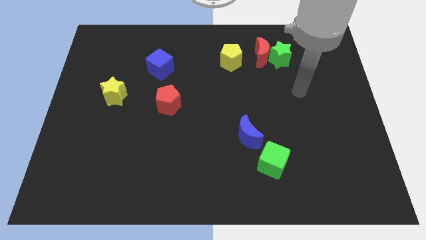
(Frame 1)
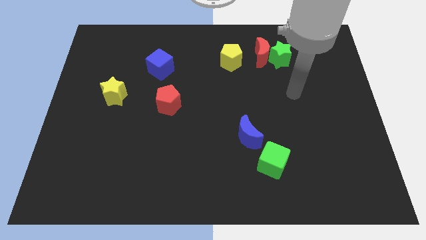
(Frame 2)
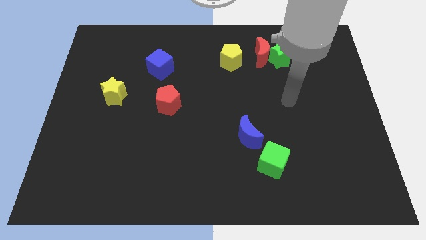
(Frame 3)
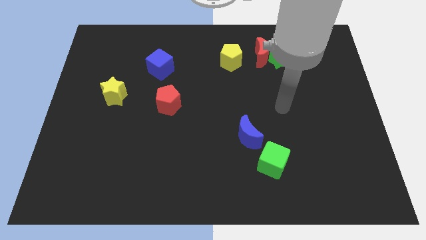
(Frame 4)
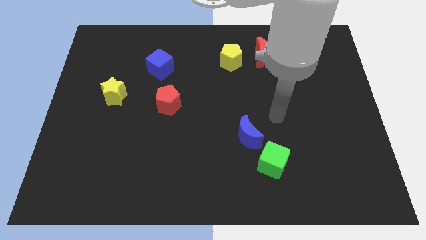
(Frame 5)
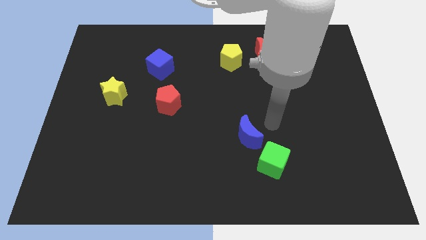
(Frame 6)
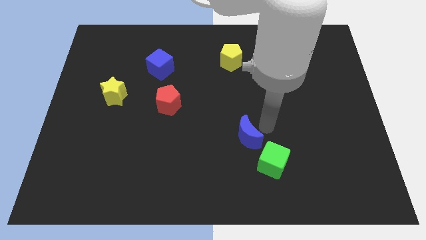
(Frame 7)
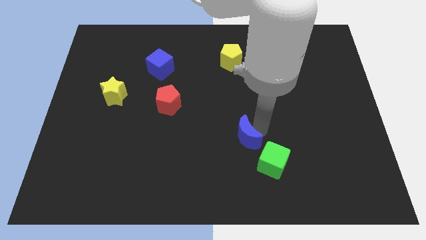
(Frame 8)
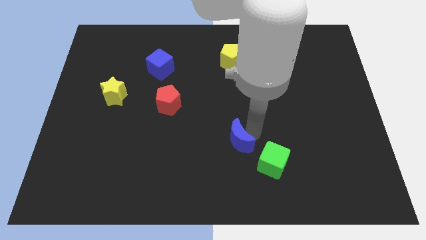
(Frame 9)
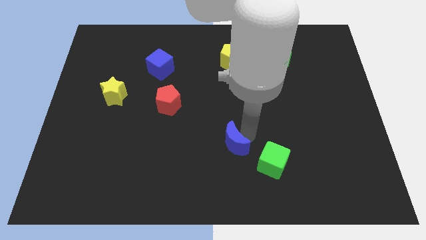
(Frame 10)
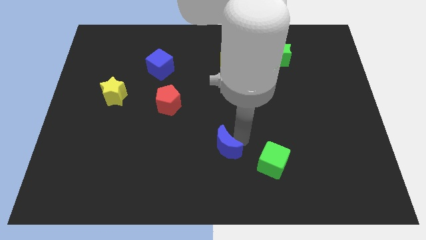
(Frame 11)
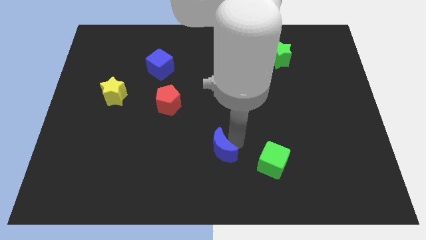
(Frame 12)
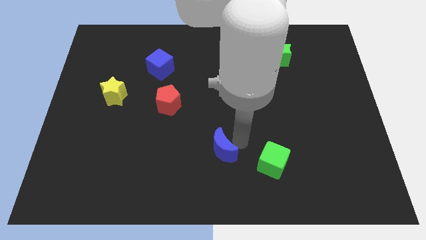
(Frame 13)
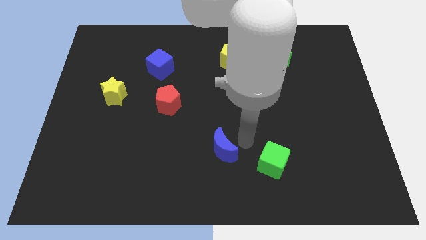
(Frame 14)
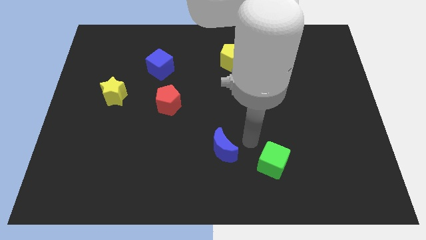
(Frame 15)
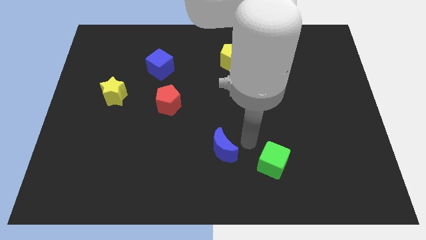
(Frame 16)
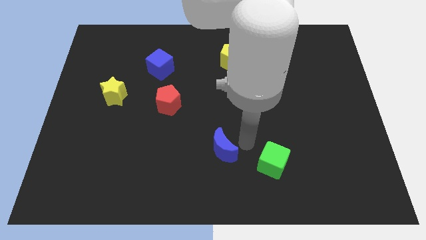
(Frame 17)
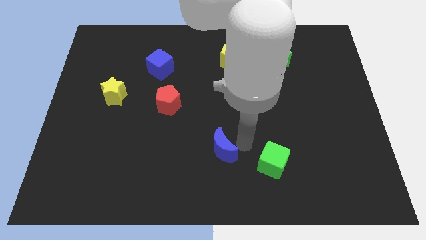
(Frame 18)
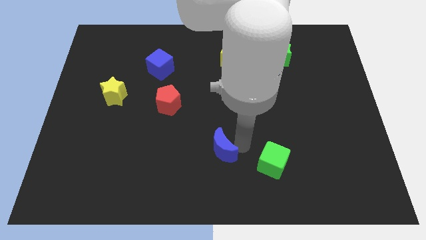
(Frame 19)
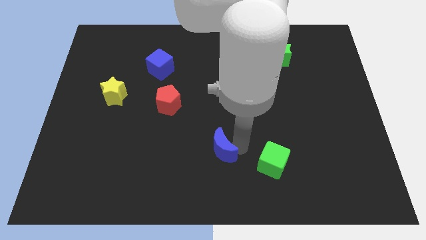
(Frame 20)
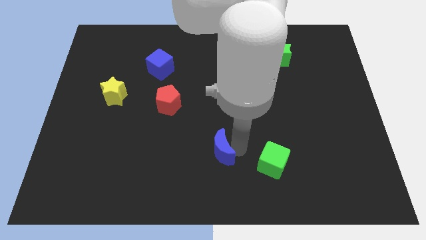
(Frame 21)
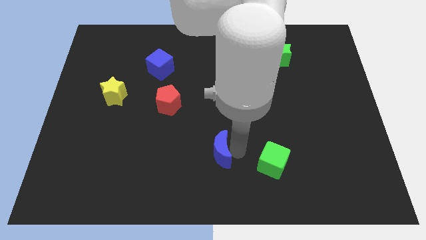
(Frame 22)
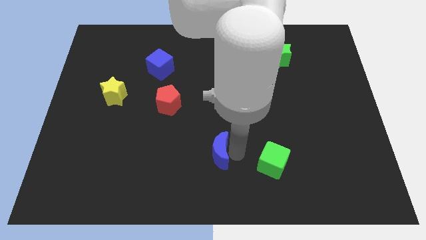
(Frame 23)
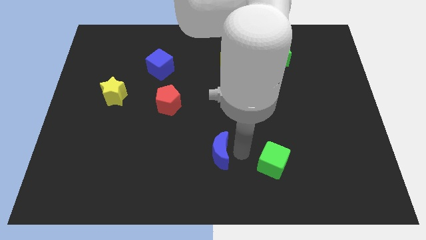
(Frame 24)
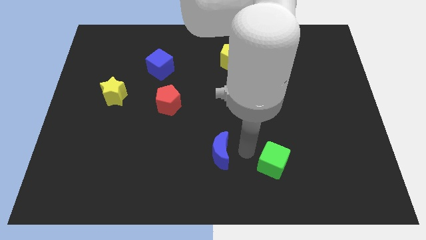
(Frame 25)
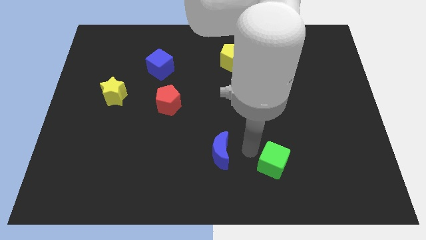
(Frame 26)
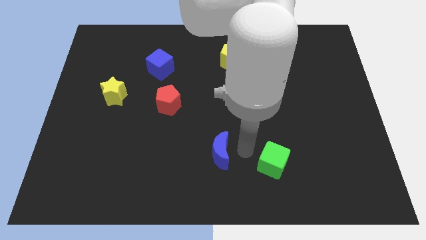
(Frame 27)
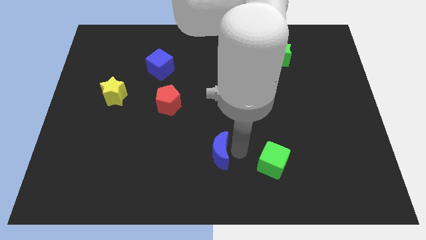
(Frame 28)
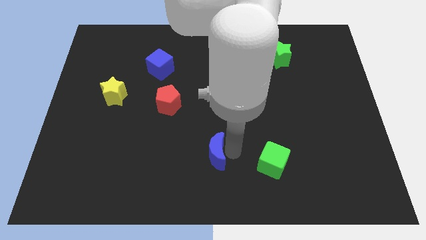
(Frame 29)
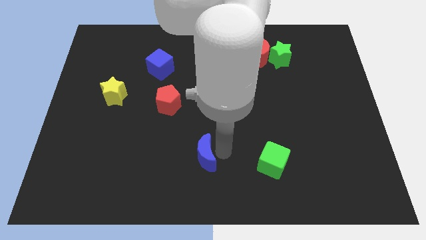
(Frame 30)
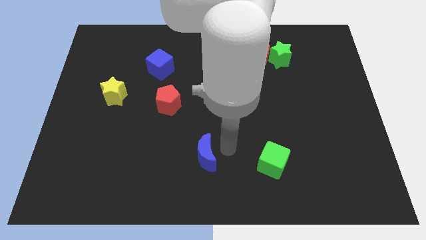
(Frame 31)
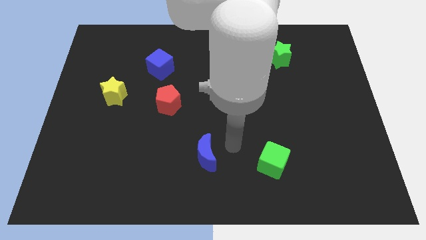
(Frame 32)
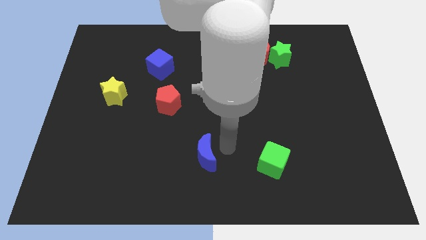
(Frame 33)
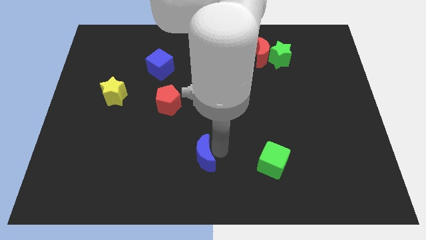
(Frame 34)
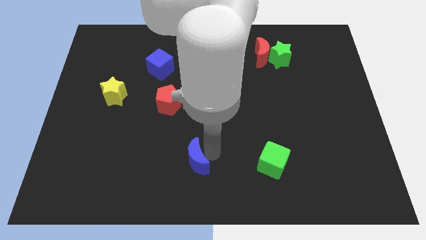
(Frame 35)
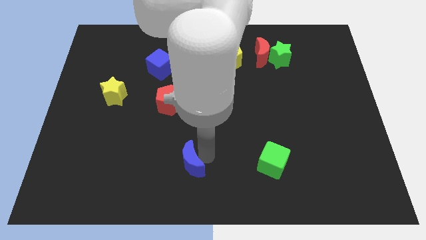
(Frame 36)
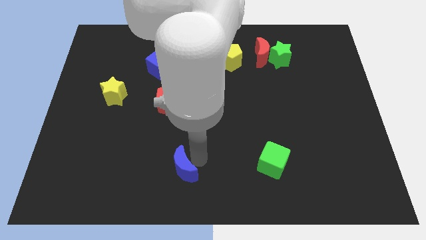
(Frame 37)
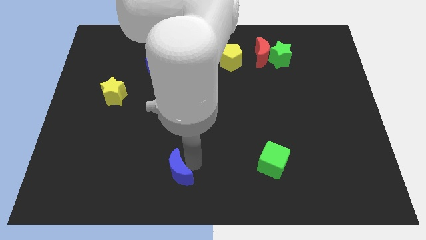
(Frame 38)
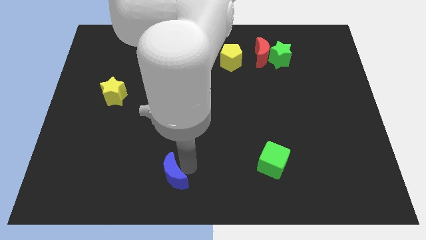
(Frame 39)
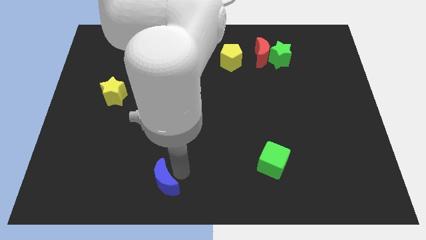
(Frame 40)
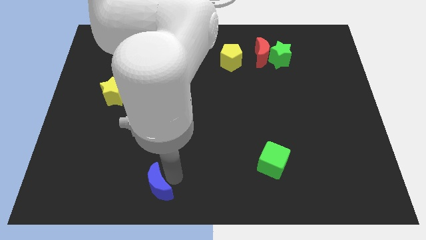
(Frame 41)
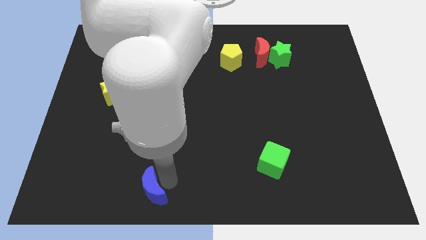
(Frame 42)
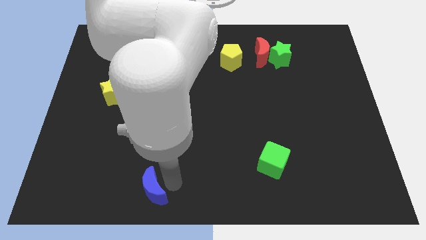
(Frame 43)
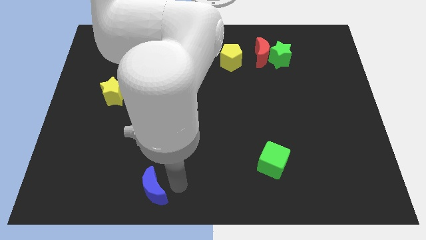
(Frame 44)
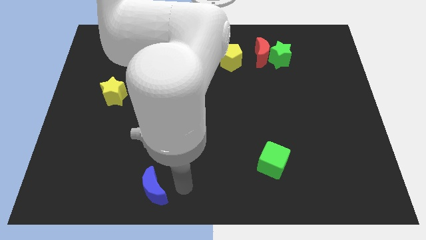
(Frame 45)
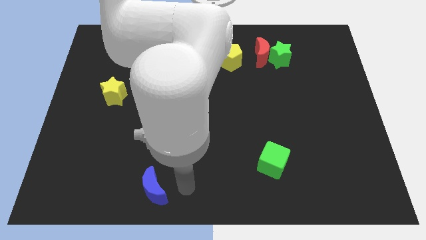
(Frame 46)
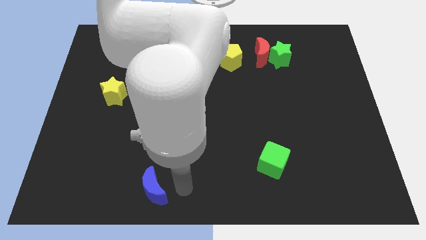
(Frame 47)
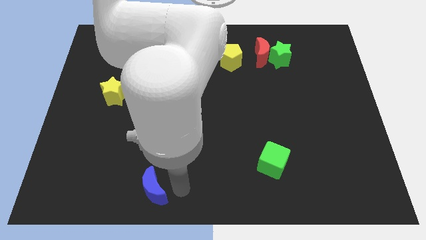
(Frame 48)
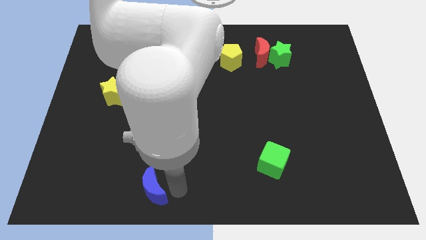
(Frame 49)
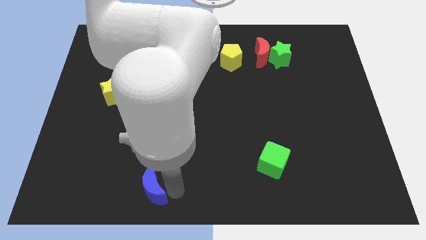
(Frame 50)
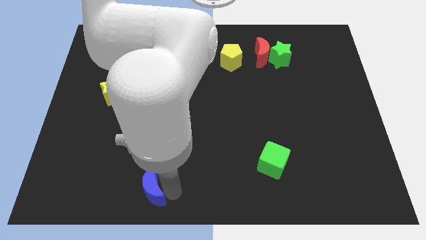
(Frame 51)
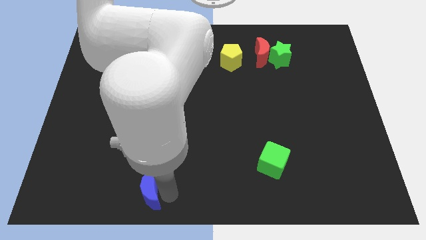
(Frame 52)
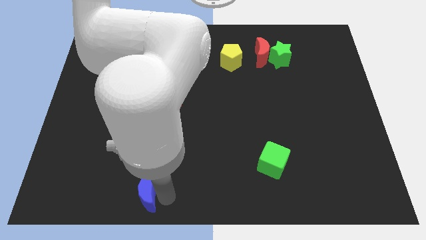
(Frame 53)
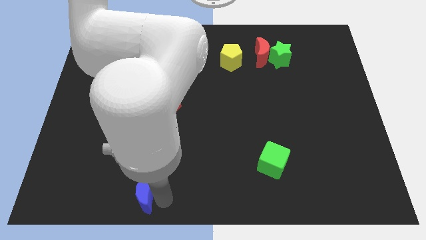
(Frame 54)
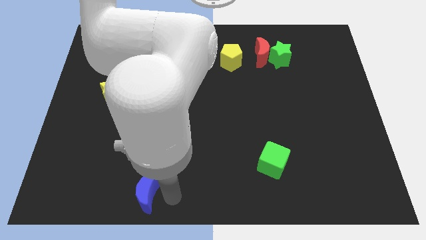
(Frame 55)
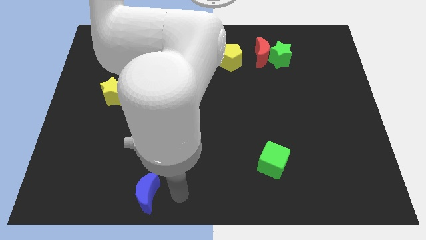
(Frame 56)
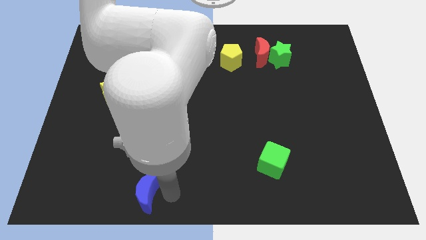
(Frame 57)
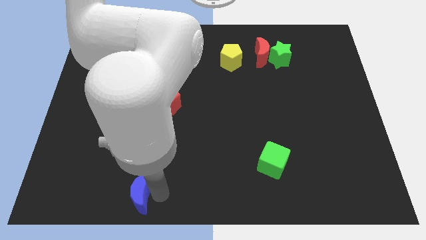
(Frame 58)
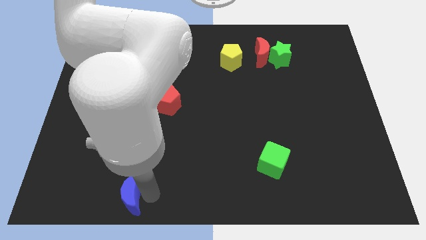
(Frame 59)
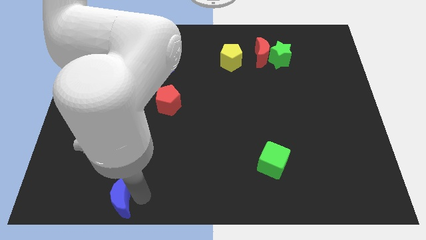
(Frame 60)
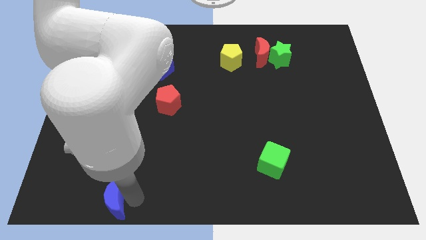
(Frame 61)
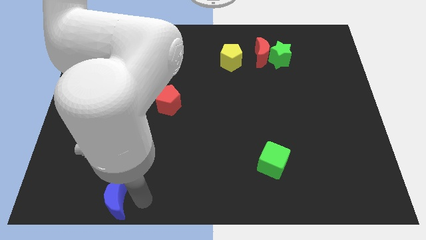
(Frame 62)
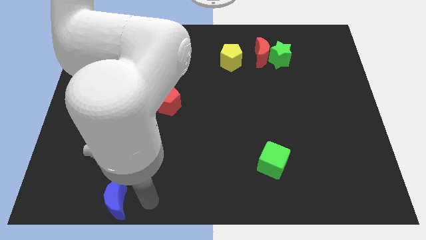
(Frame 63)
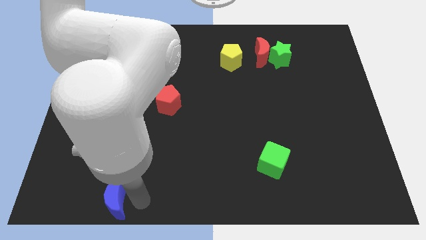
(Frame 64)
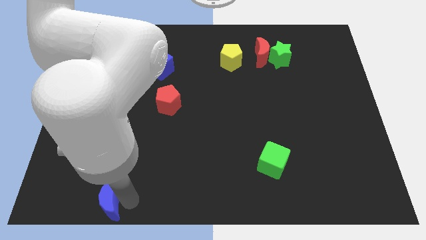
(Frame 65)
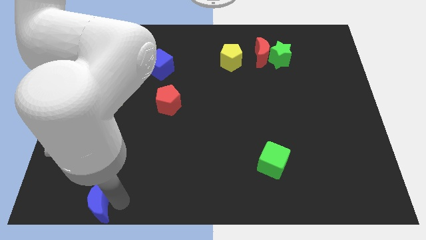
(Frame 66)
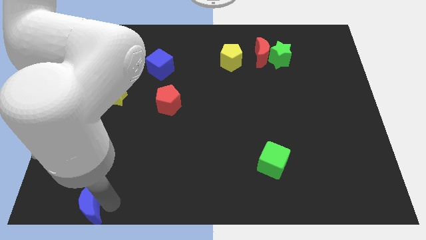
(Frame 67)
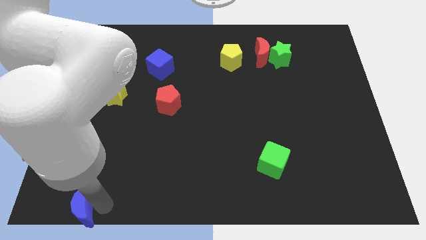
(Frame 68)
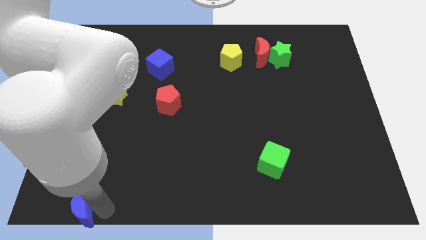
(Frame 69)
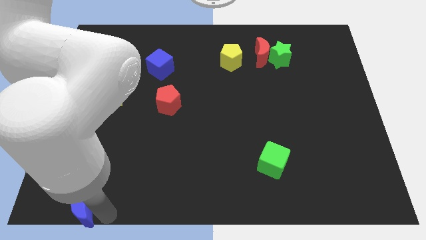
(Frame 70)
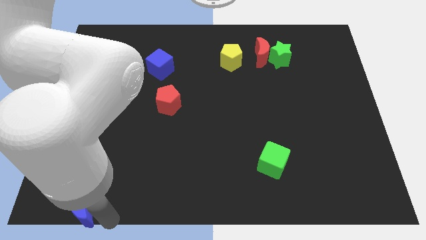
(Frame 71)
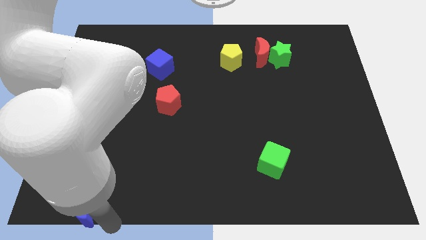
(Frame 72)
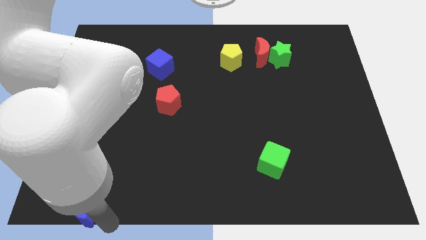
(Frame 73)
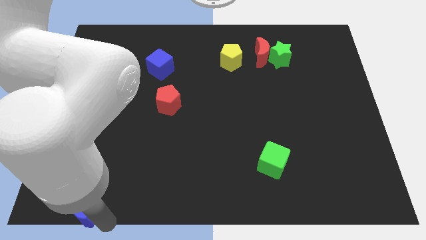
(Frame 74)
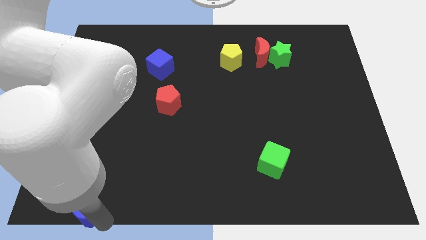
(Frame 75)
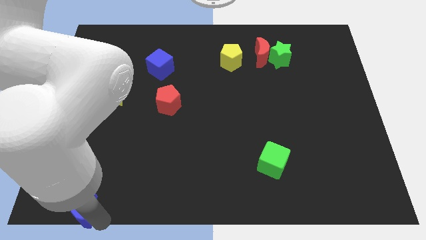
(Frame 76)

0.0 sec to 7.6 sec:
slide the blue moon to the bottom left corner
